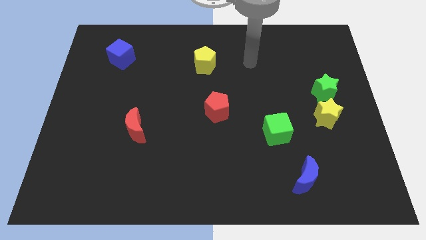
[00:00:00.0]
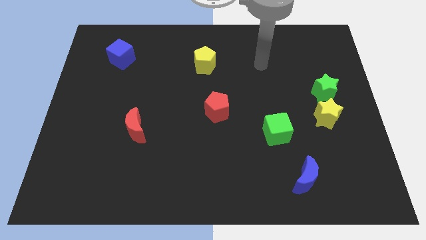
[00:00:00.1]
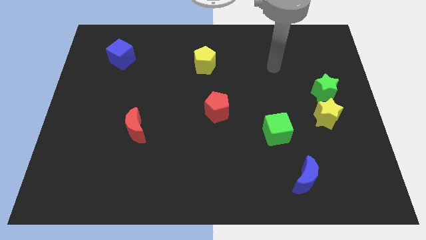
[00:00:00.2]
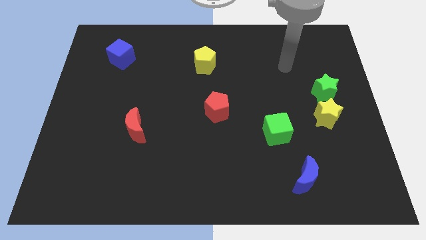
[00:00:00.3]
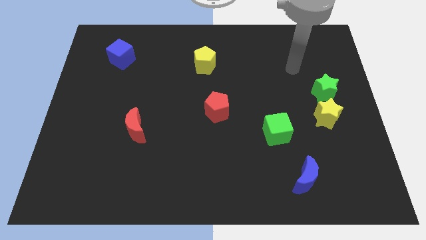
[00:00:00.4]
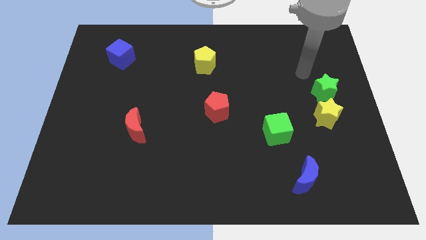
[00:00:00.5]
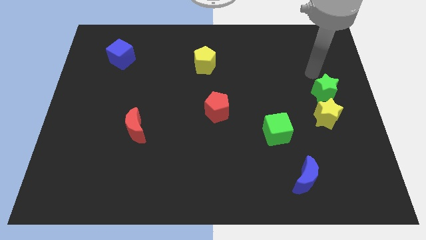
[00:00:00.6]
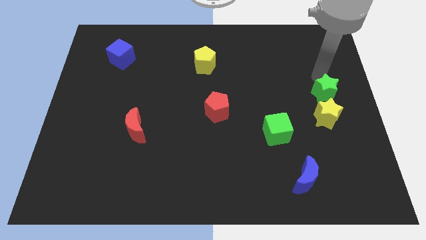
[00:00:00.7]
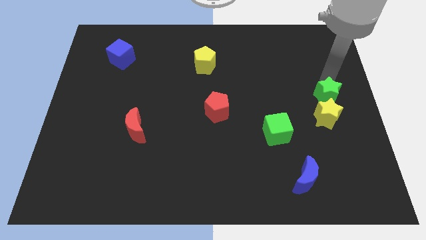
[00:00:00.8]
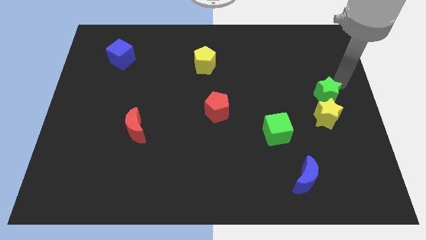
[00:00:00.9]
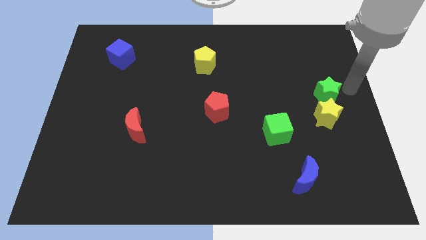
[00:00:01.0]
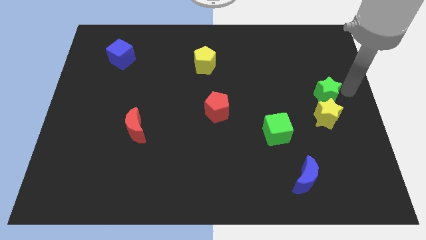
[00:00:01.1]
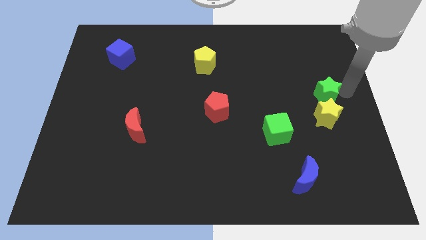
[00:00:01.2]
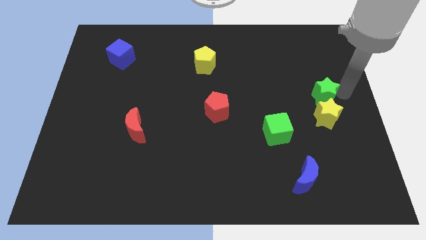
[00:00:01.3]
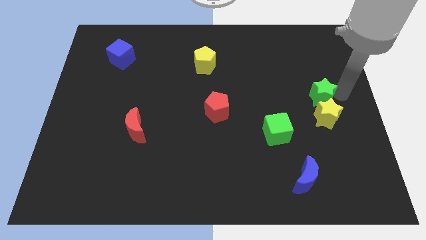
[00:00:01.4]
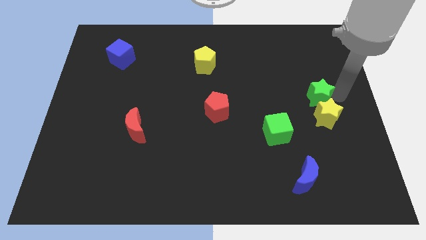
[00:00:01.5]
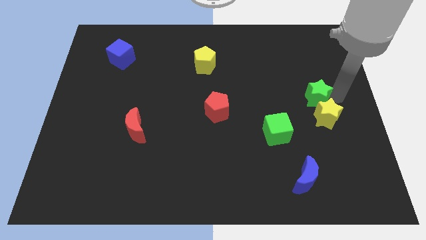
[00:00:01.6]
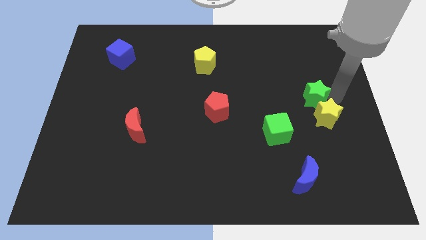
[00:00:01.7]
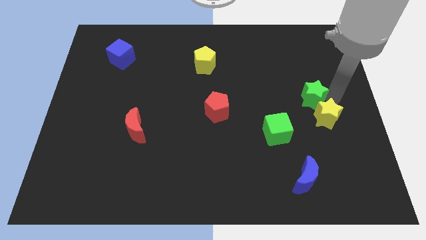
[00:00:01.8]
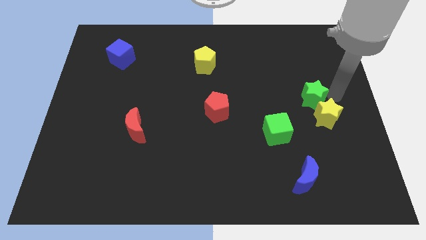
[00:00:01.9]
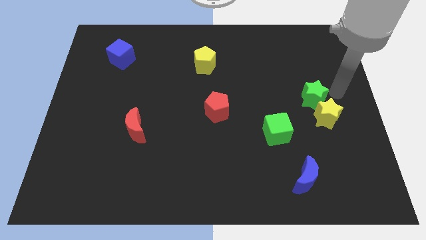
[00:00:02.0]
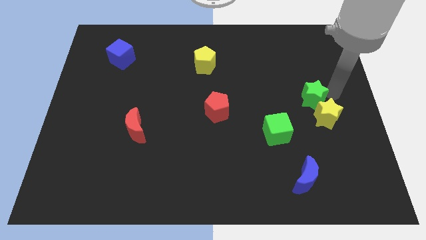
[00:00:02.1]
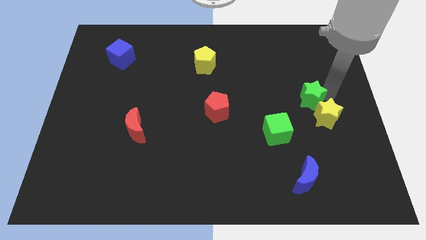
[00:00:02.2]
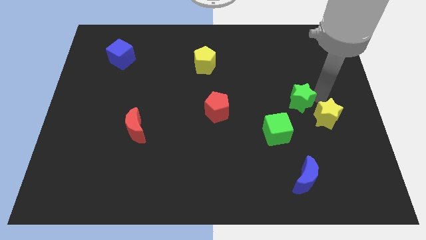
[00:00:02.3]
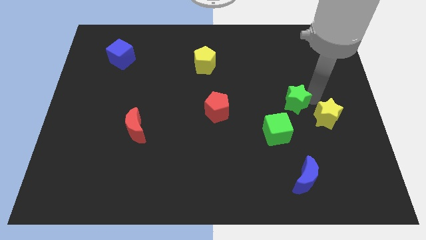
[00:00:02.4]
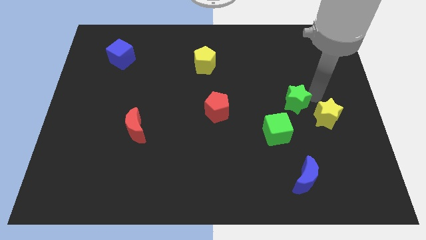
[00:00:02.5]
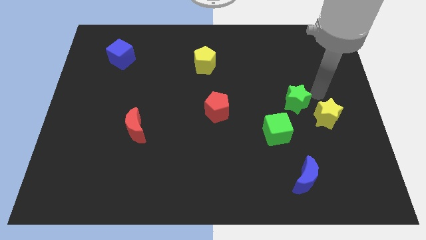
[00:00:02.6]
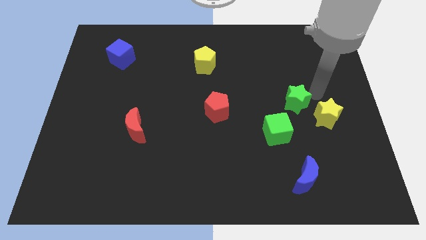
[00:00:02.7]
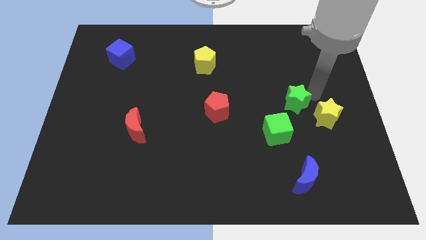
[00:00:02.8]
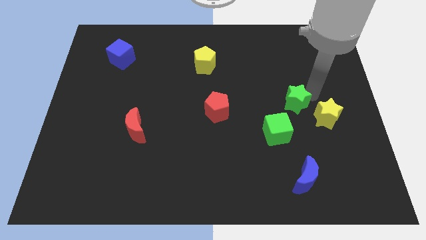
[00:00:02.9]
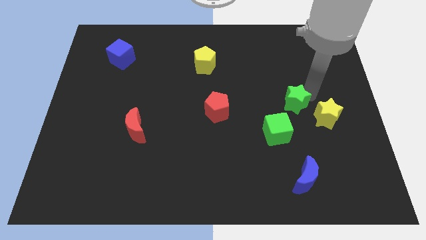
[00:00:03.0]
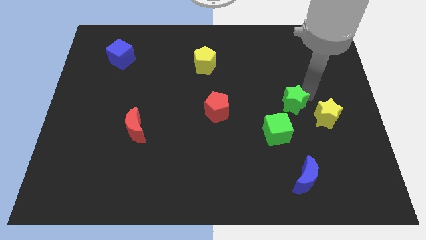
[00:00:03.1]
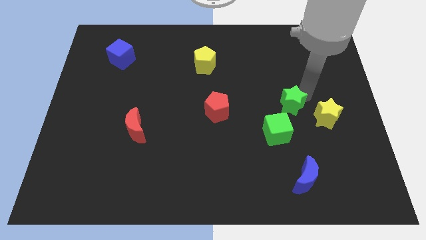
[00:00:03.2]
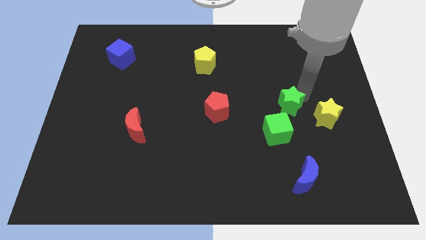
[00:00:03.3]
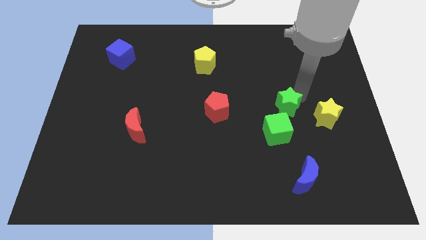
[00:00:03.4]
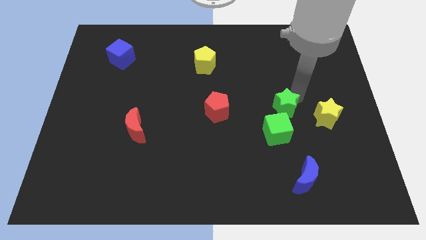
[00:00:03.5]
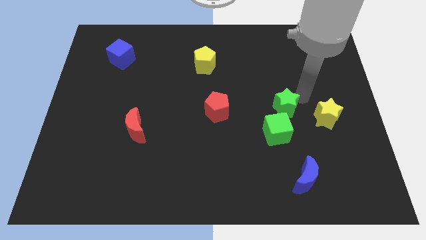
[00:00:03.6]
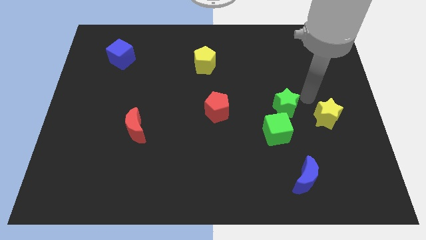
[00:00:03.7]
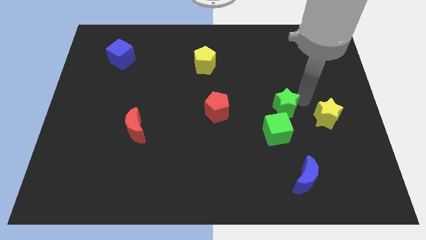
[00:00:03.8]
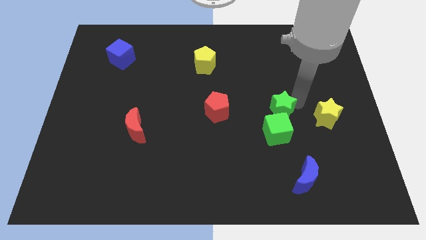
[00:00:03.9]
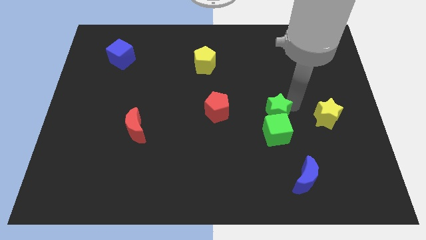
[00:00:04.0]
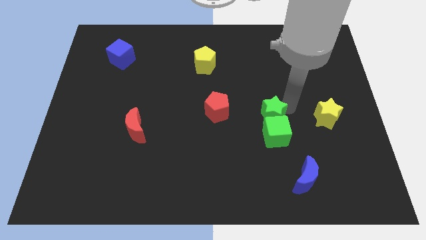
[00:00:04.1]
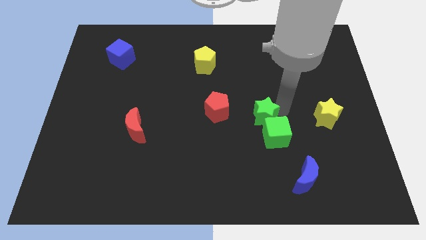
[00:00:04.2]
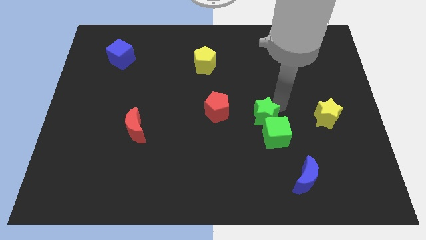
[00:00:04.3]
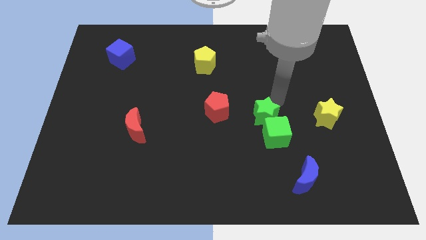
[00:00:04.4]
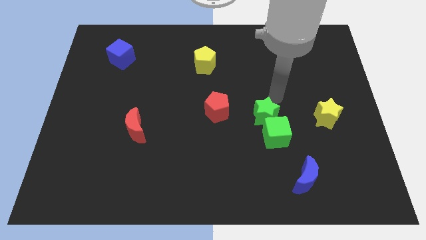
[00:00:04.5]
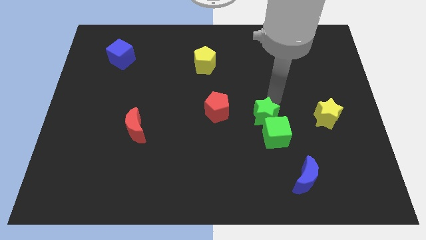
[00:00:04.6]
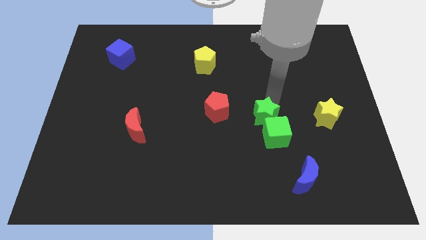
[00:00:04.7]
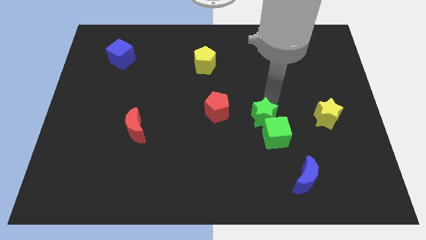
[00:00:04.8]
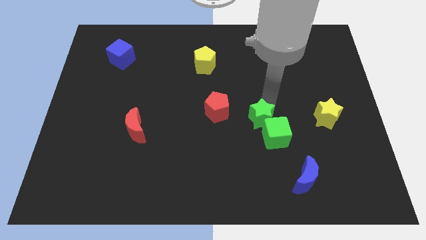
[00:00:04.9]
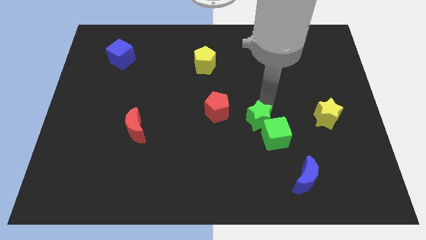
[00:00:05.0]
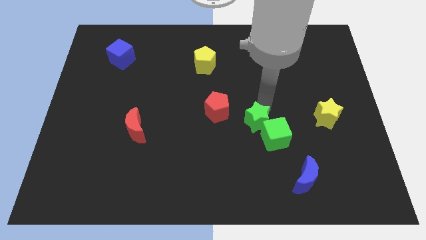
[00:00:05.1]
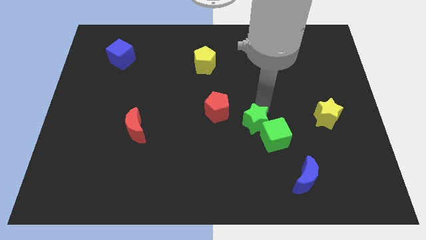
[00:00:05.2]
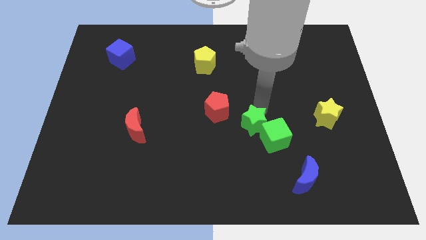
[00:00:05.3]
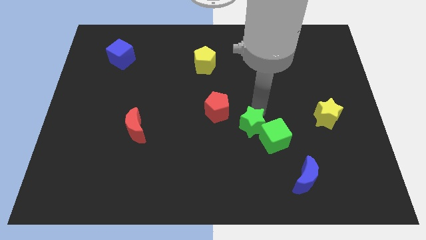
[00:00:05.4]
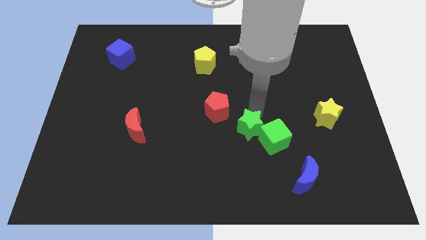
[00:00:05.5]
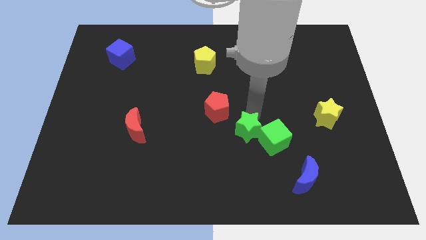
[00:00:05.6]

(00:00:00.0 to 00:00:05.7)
move the green star downwards and to the left diagonally

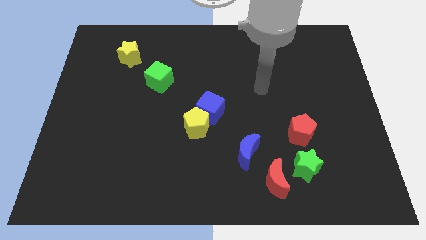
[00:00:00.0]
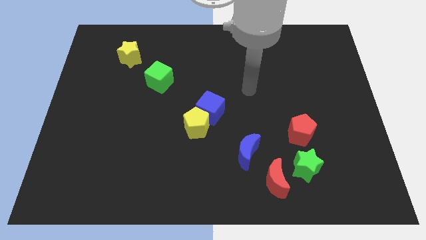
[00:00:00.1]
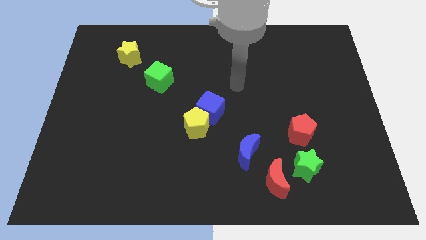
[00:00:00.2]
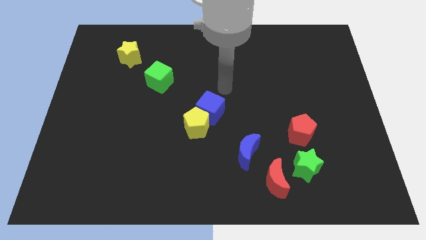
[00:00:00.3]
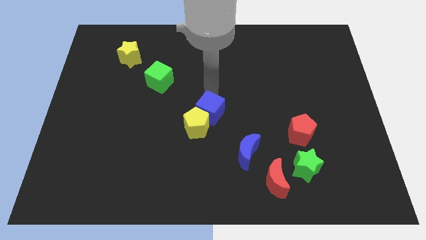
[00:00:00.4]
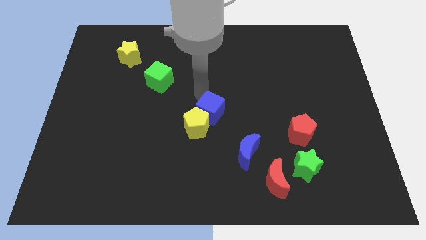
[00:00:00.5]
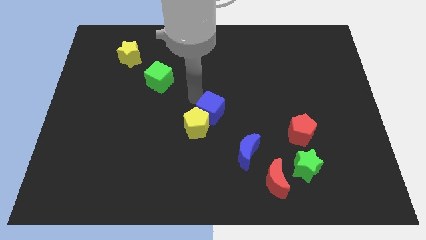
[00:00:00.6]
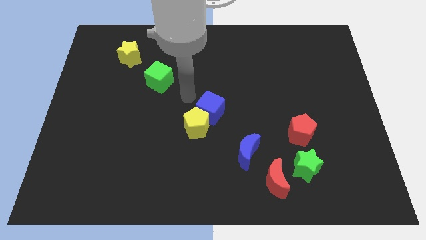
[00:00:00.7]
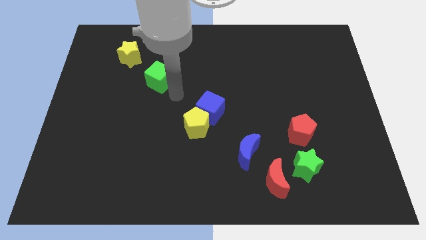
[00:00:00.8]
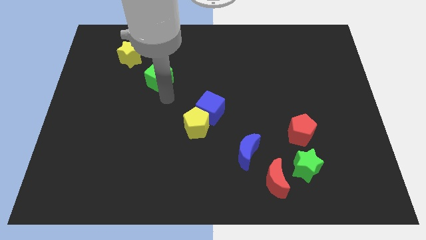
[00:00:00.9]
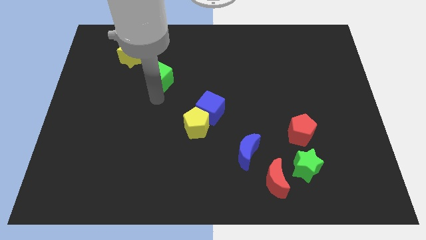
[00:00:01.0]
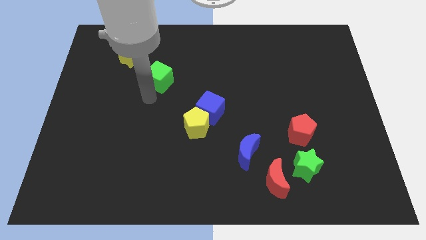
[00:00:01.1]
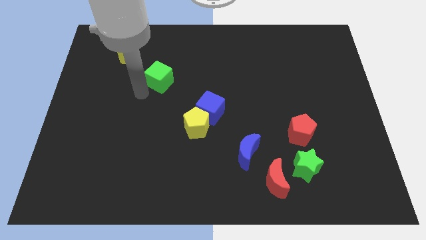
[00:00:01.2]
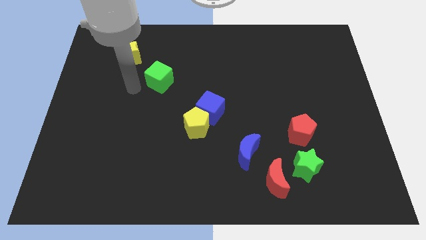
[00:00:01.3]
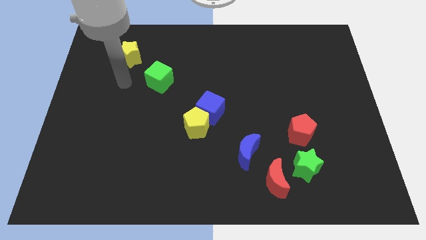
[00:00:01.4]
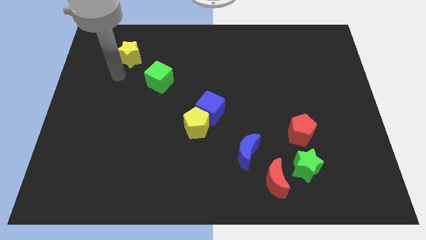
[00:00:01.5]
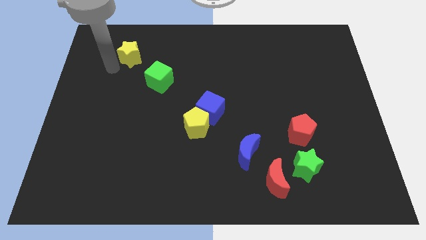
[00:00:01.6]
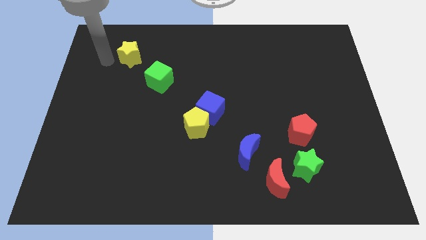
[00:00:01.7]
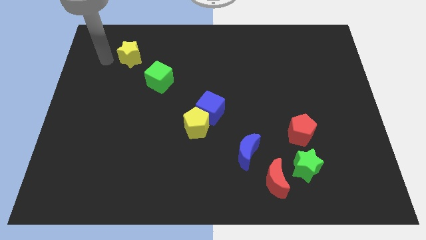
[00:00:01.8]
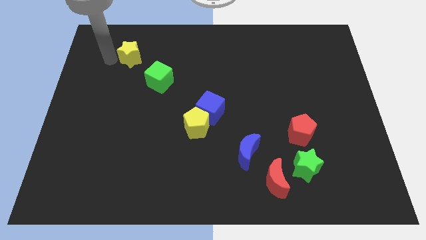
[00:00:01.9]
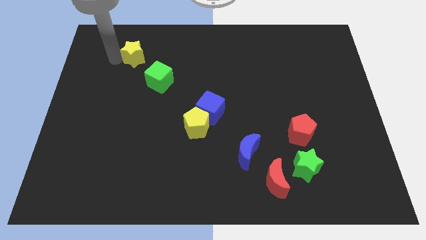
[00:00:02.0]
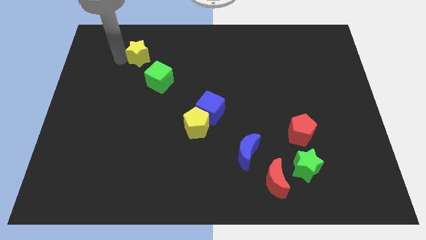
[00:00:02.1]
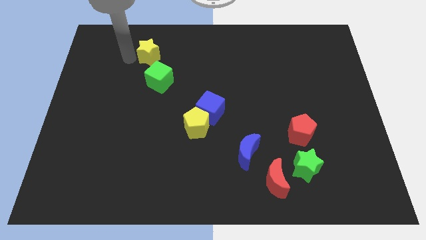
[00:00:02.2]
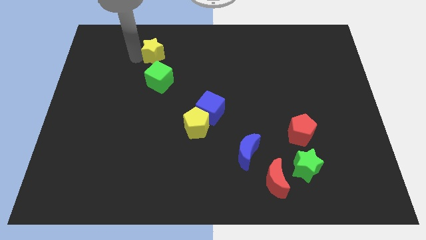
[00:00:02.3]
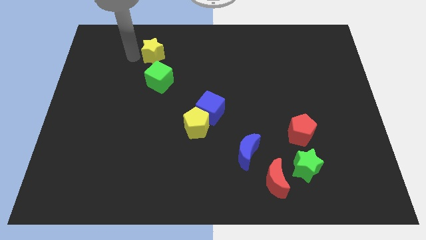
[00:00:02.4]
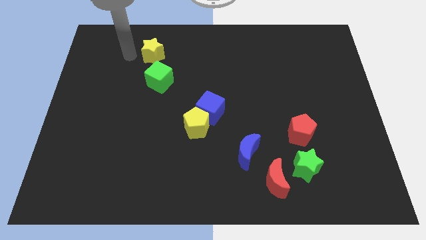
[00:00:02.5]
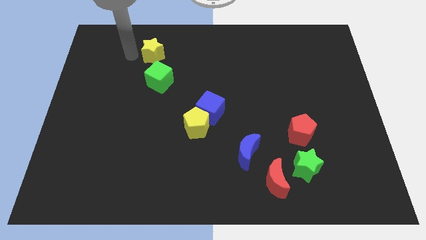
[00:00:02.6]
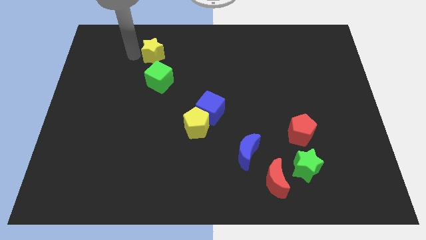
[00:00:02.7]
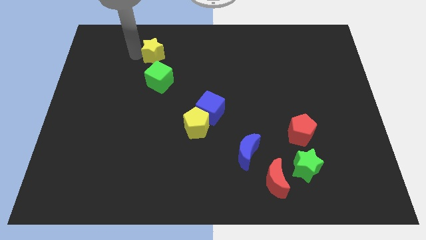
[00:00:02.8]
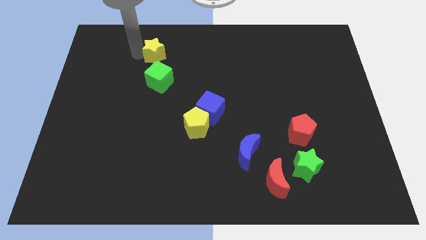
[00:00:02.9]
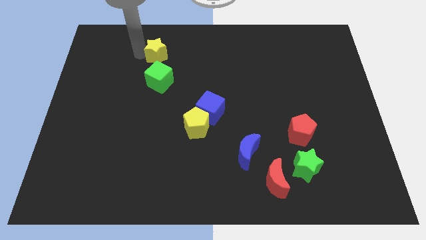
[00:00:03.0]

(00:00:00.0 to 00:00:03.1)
slide the yellow star to the right a little
